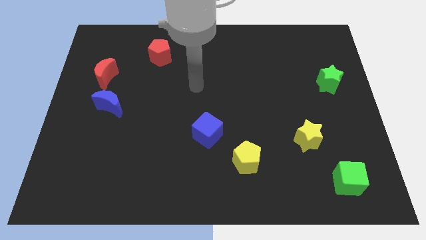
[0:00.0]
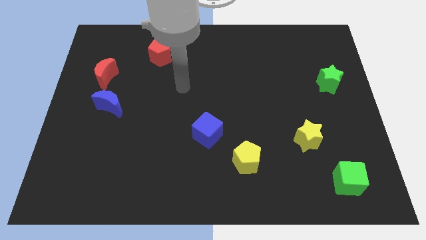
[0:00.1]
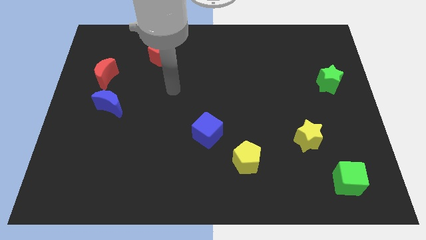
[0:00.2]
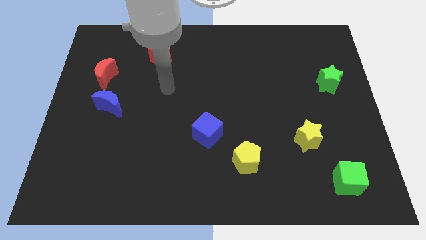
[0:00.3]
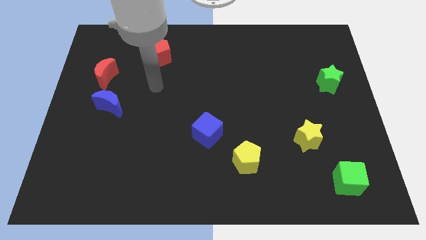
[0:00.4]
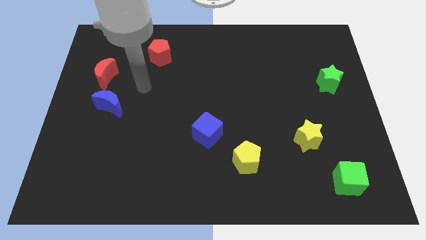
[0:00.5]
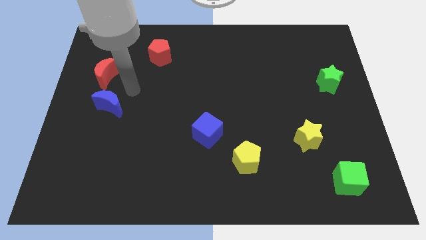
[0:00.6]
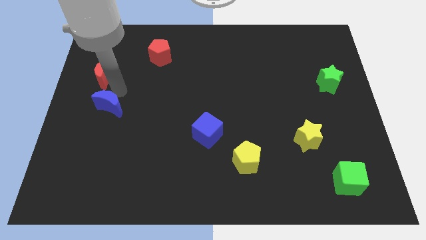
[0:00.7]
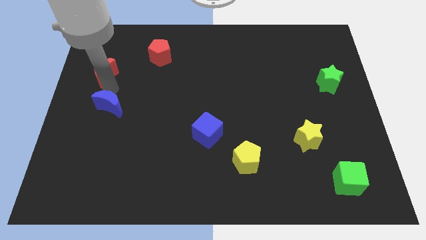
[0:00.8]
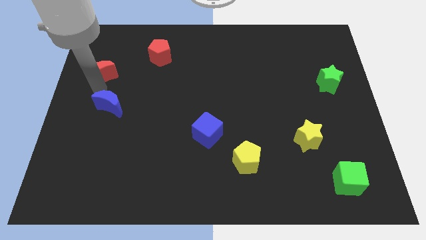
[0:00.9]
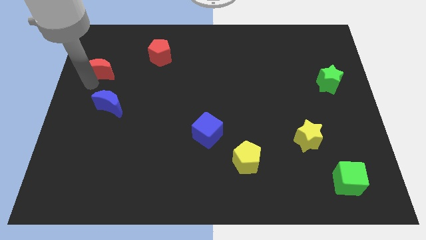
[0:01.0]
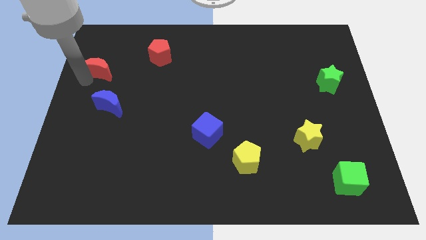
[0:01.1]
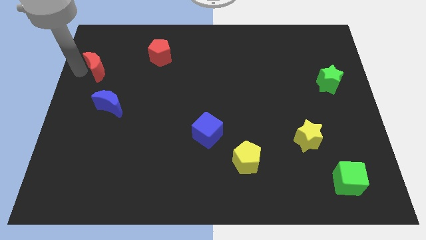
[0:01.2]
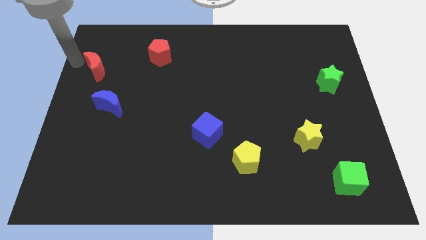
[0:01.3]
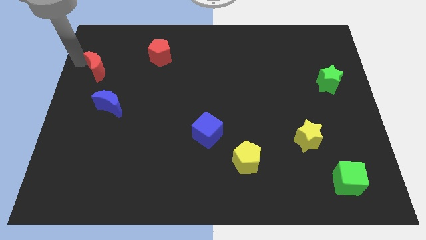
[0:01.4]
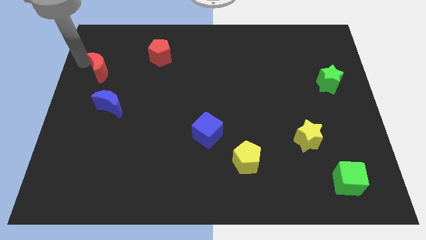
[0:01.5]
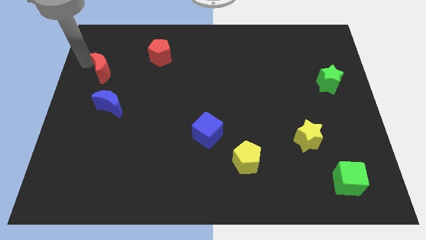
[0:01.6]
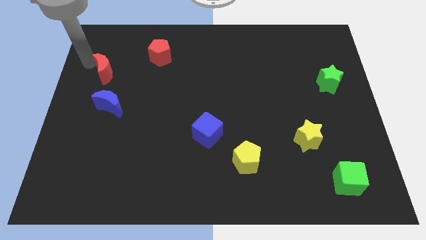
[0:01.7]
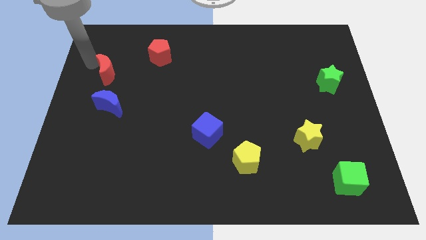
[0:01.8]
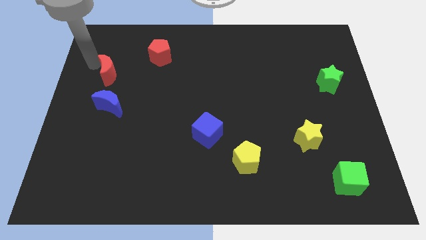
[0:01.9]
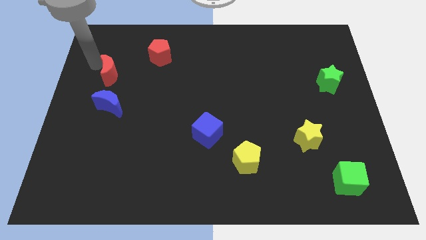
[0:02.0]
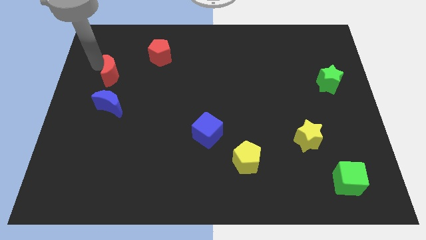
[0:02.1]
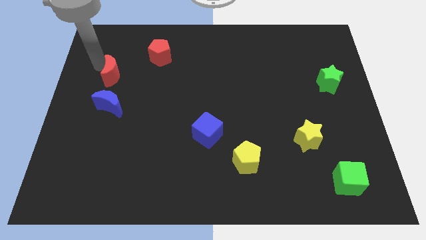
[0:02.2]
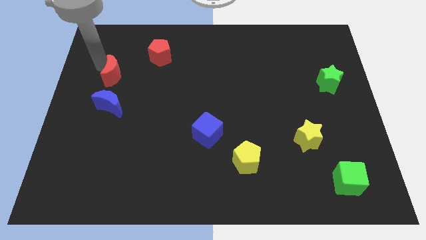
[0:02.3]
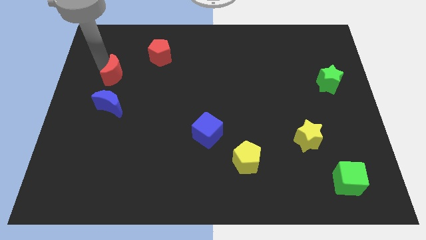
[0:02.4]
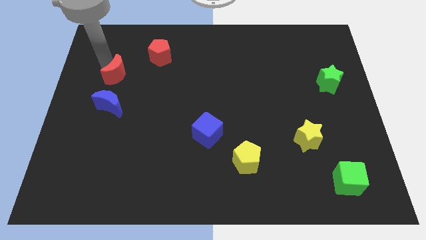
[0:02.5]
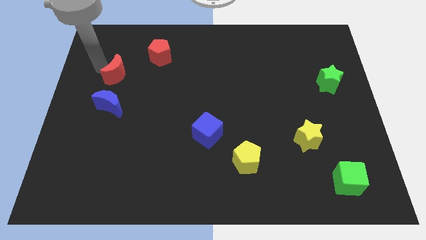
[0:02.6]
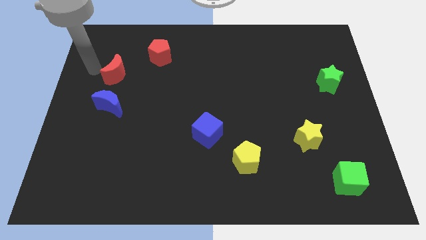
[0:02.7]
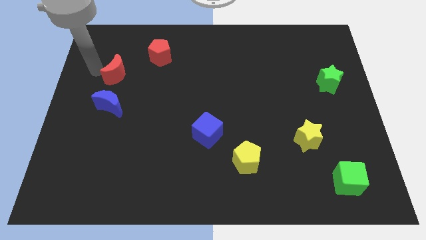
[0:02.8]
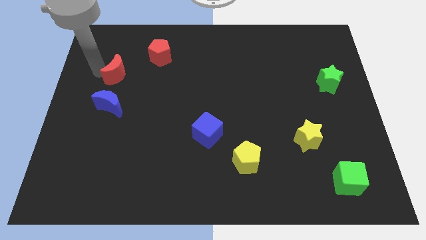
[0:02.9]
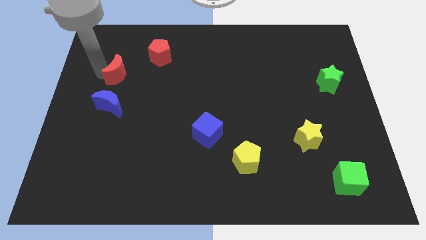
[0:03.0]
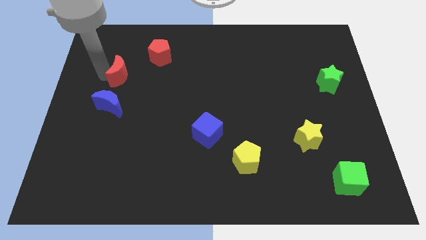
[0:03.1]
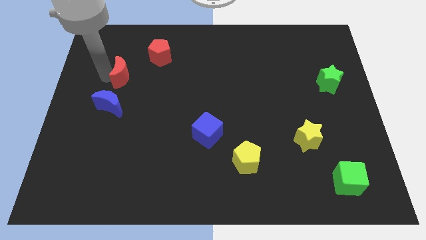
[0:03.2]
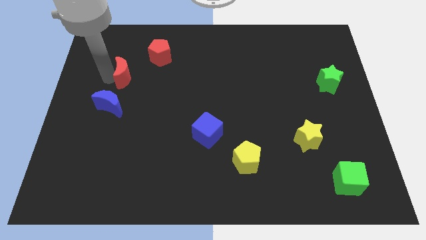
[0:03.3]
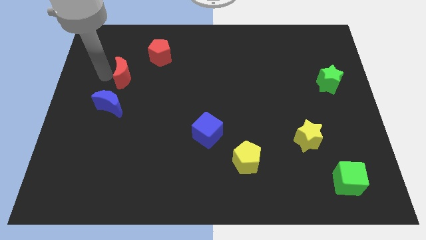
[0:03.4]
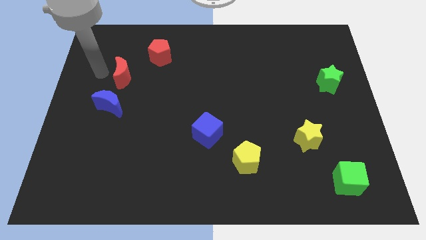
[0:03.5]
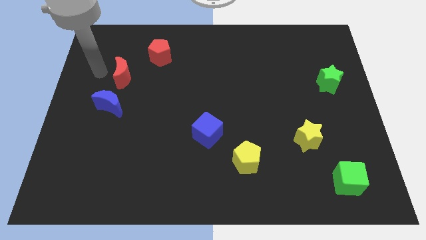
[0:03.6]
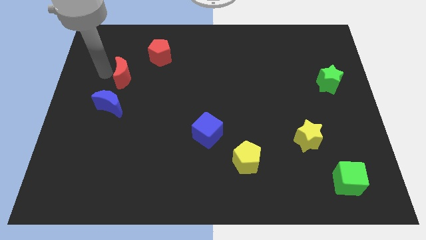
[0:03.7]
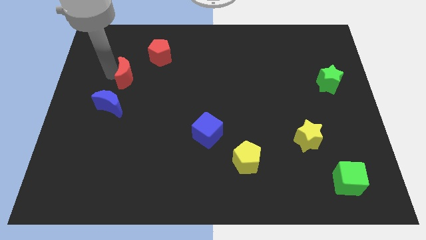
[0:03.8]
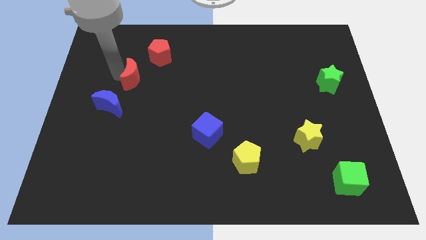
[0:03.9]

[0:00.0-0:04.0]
move the red moon to the right a little bit

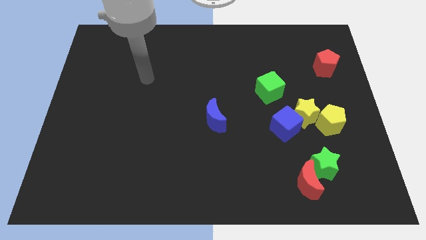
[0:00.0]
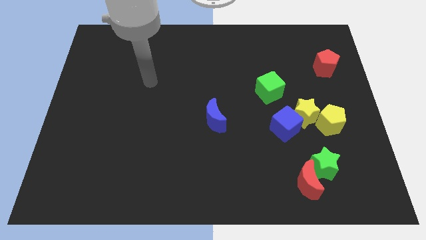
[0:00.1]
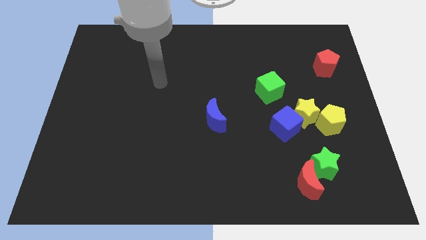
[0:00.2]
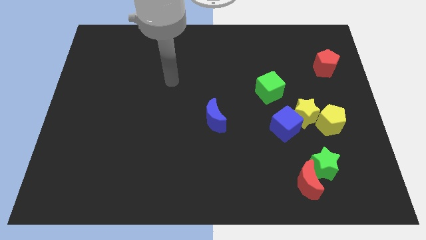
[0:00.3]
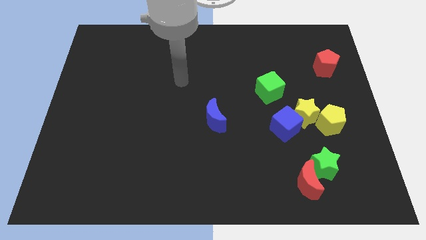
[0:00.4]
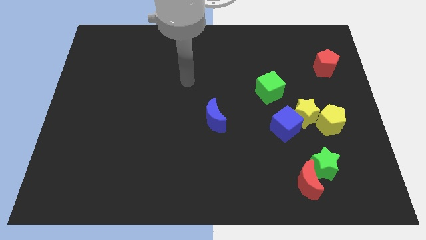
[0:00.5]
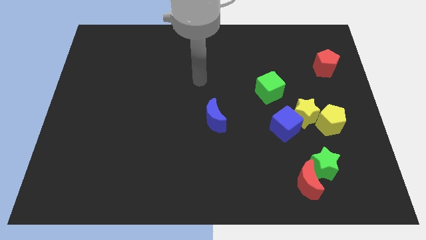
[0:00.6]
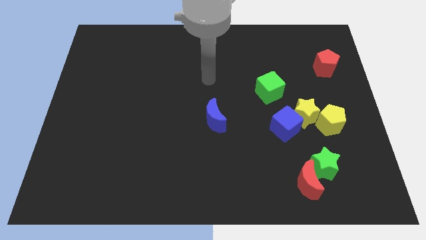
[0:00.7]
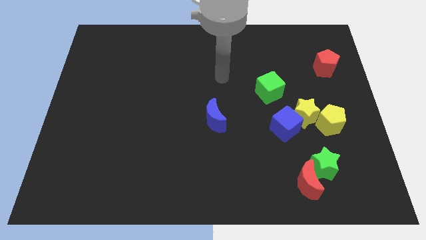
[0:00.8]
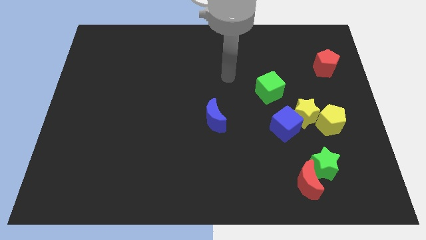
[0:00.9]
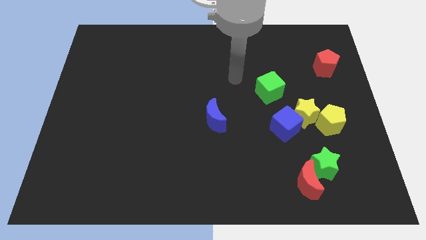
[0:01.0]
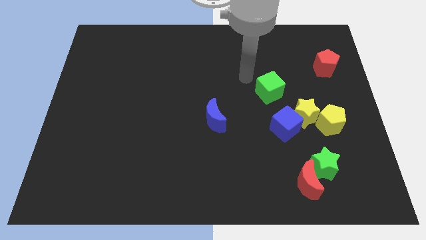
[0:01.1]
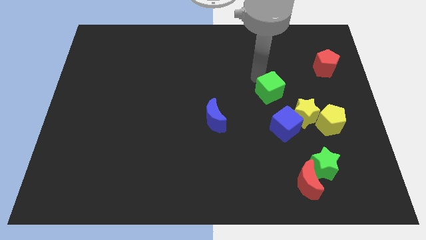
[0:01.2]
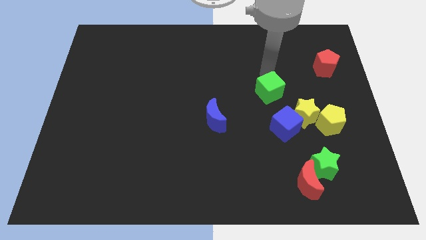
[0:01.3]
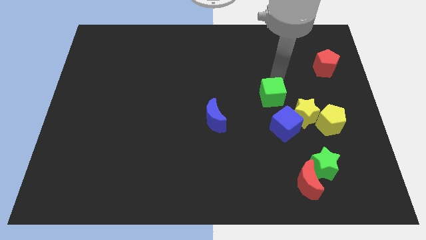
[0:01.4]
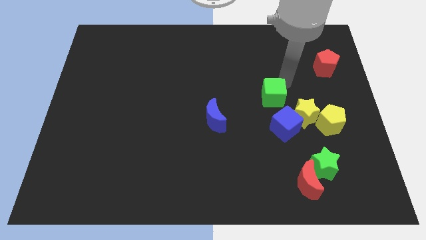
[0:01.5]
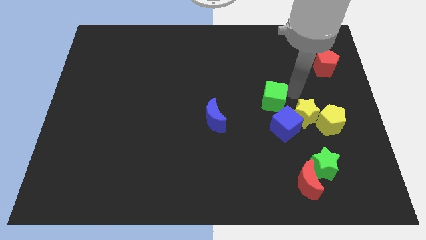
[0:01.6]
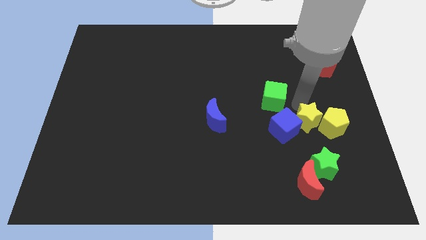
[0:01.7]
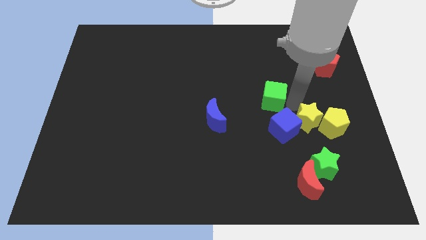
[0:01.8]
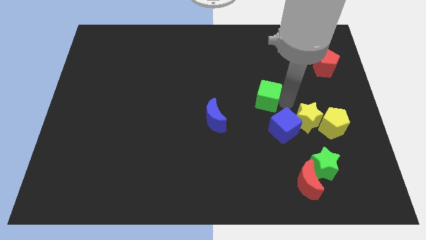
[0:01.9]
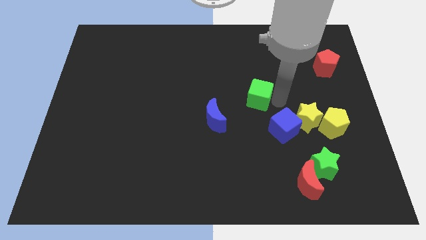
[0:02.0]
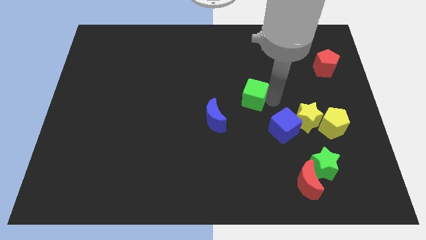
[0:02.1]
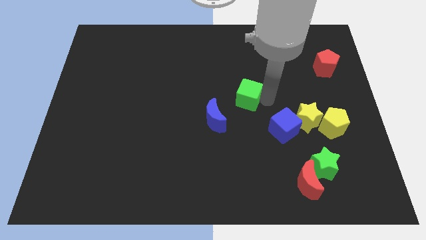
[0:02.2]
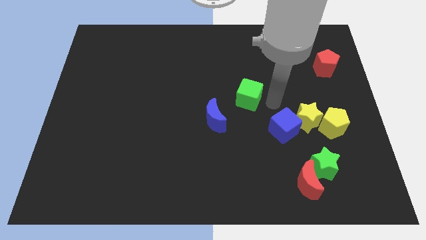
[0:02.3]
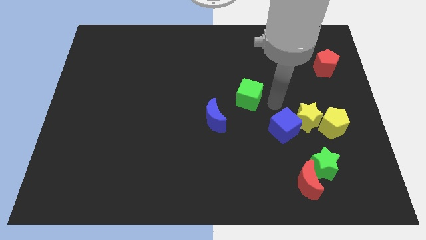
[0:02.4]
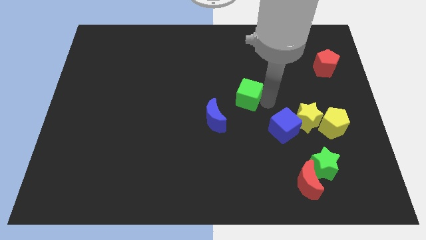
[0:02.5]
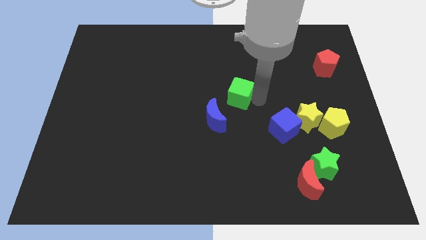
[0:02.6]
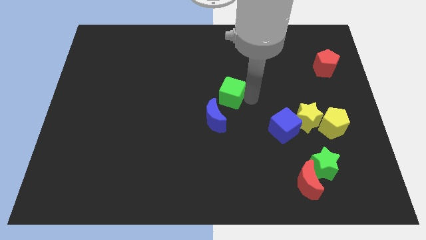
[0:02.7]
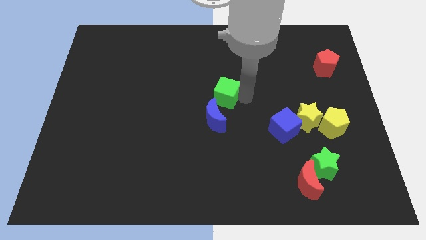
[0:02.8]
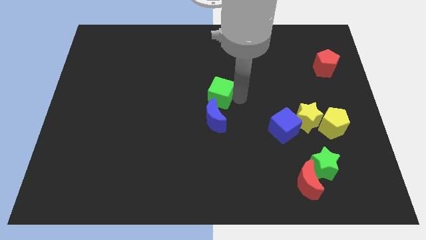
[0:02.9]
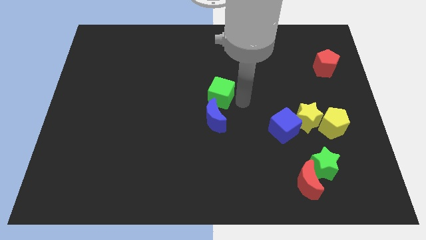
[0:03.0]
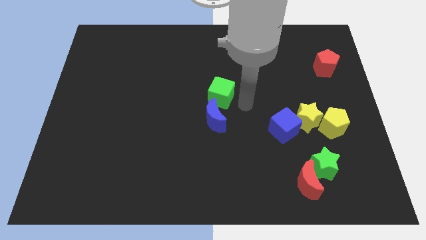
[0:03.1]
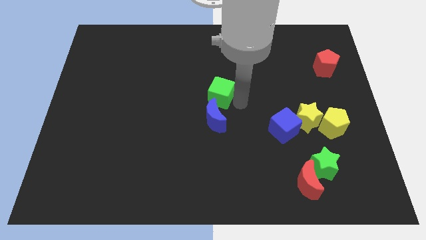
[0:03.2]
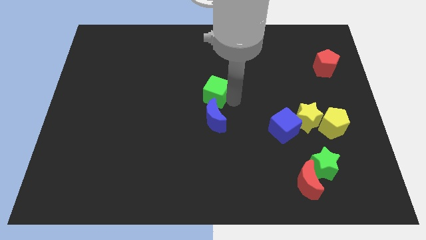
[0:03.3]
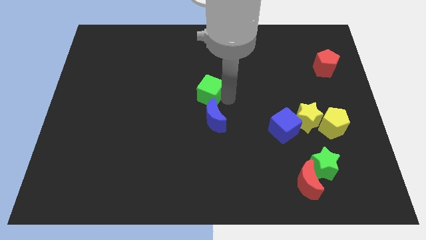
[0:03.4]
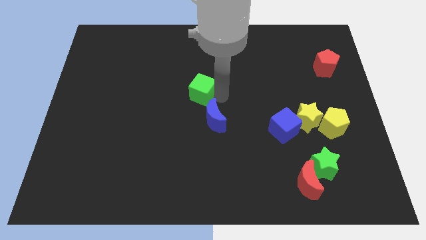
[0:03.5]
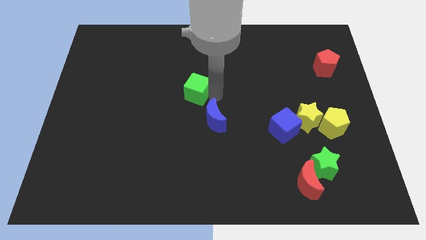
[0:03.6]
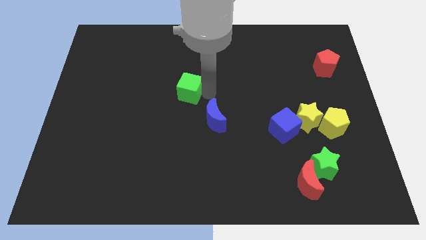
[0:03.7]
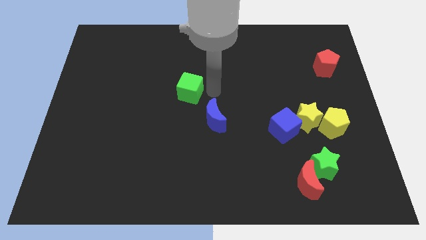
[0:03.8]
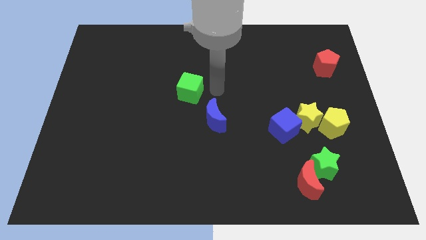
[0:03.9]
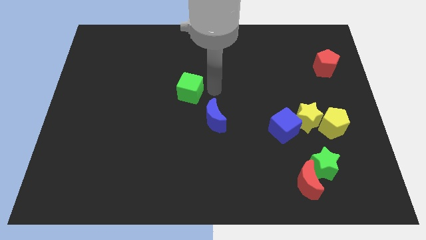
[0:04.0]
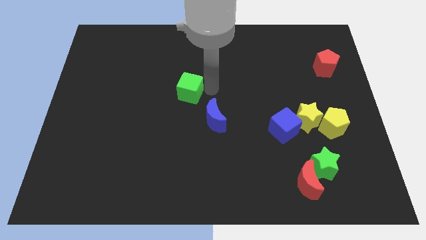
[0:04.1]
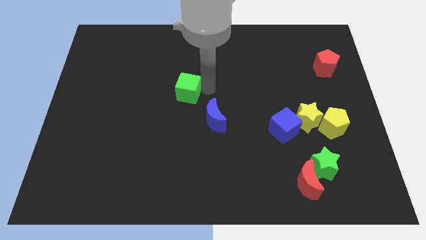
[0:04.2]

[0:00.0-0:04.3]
slide the green cube to the left
